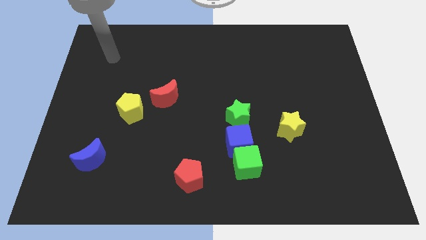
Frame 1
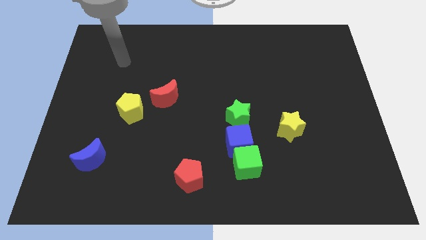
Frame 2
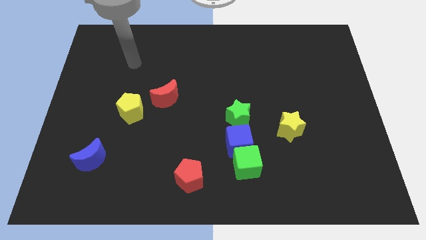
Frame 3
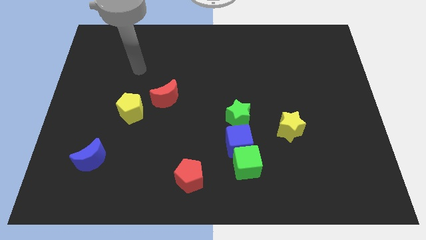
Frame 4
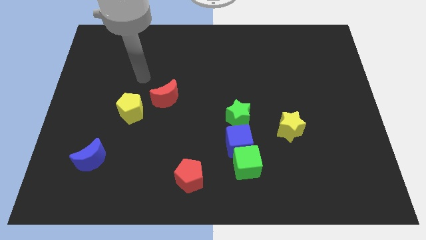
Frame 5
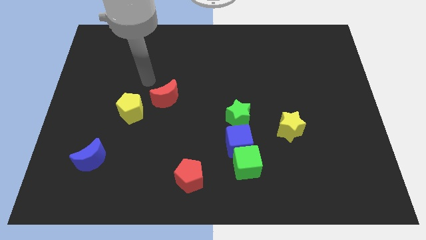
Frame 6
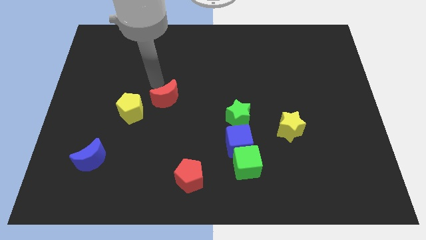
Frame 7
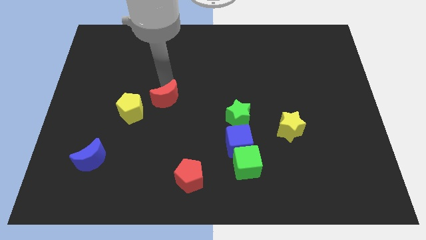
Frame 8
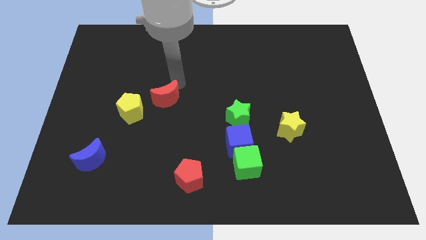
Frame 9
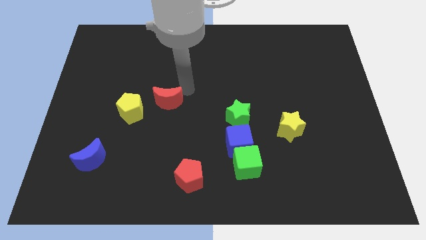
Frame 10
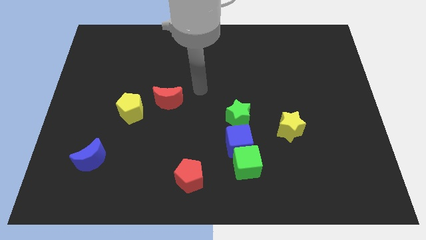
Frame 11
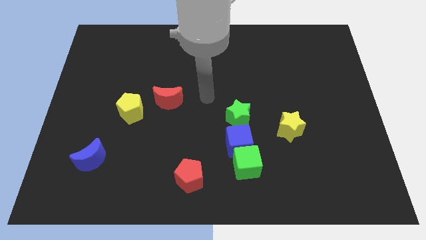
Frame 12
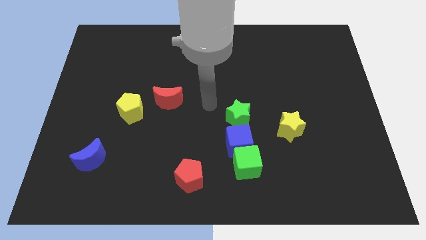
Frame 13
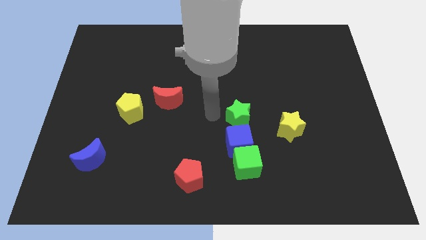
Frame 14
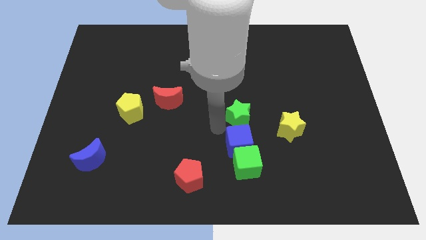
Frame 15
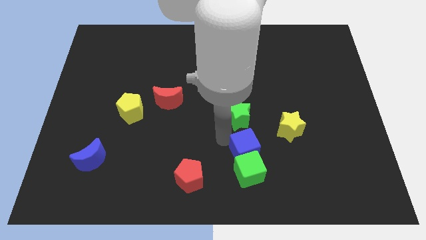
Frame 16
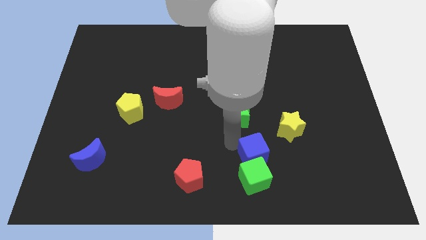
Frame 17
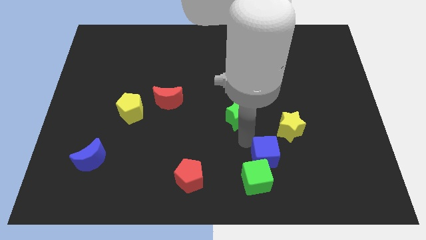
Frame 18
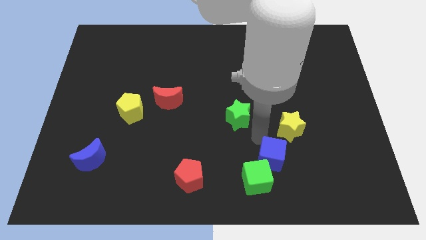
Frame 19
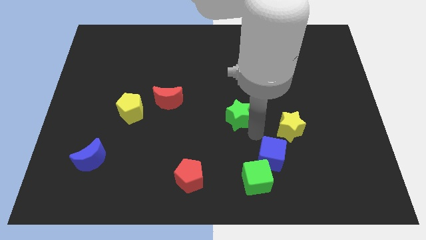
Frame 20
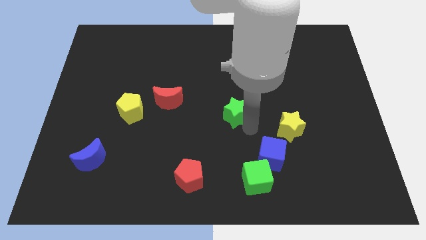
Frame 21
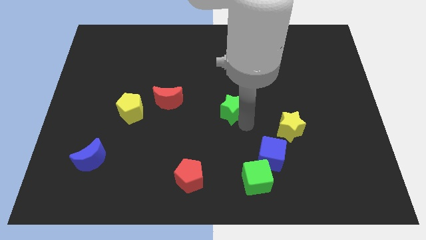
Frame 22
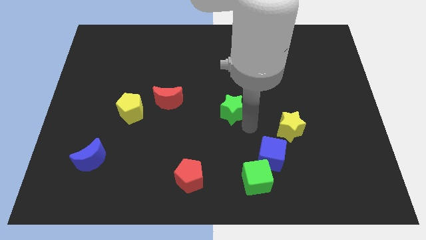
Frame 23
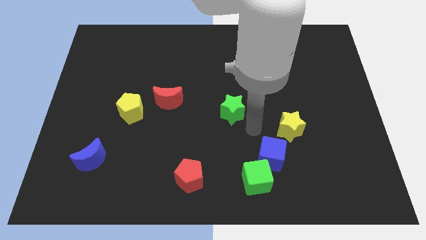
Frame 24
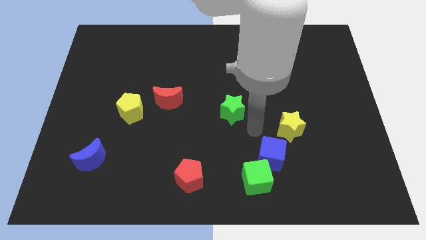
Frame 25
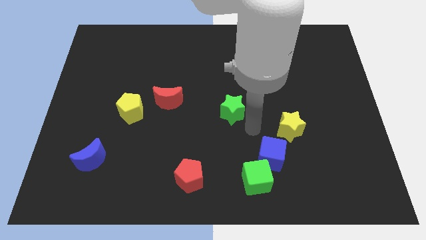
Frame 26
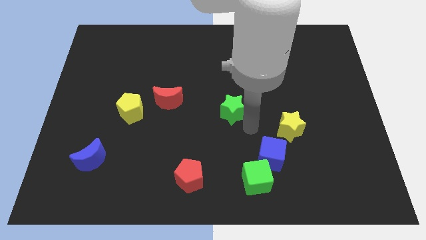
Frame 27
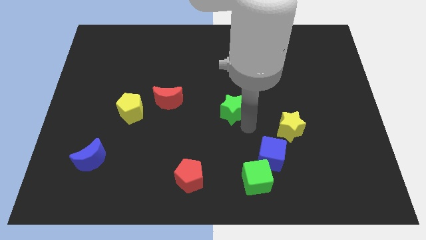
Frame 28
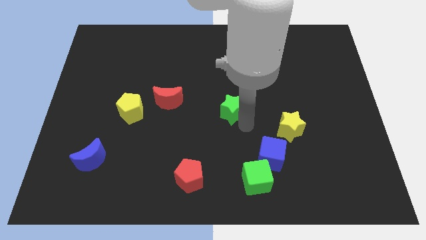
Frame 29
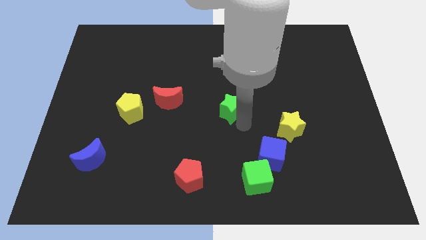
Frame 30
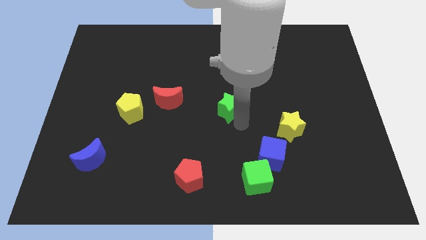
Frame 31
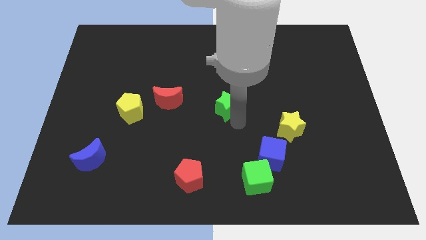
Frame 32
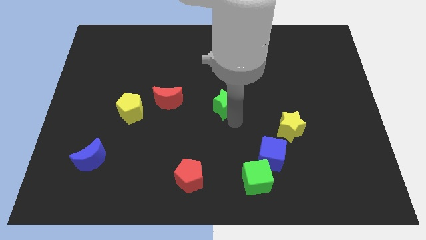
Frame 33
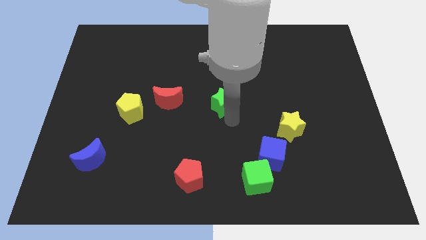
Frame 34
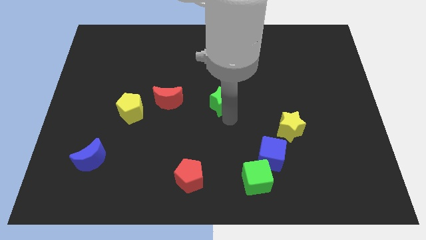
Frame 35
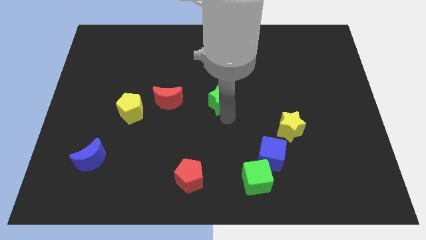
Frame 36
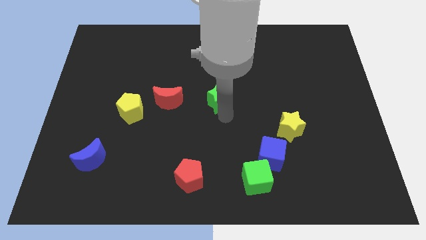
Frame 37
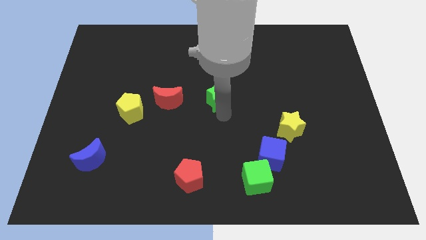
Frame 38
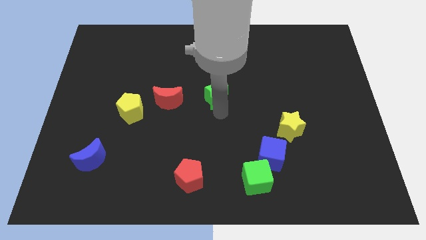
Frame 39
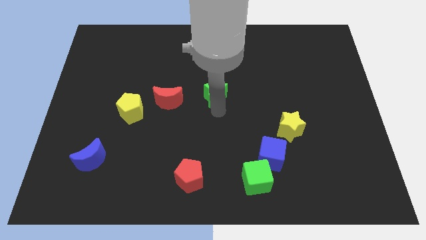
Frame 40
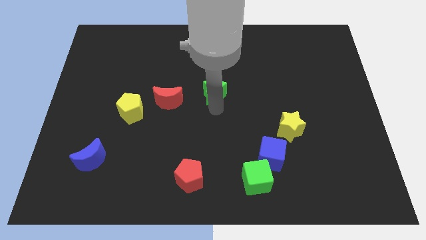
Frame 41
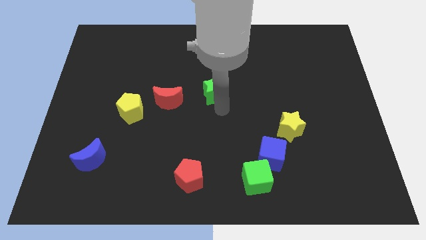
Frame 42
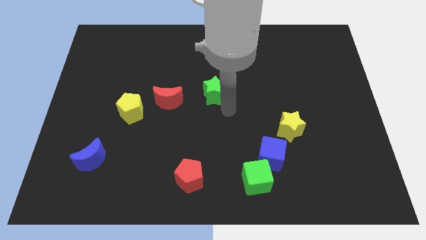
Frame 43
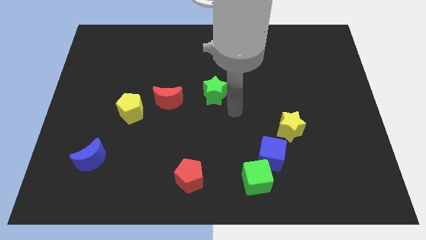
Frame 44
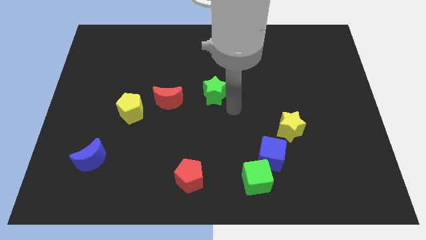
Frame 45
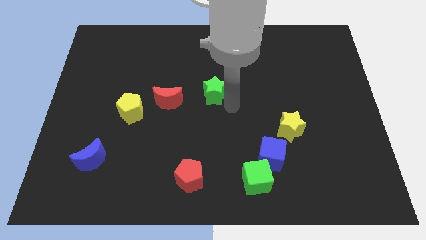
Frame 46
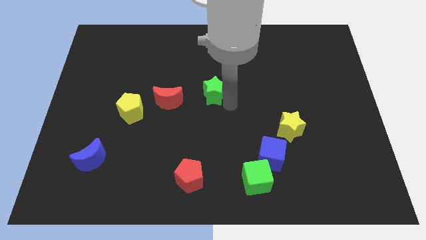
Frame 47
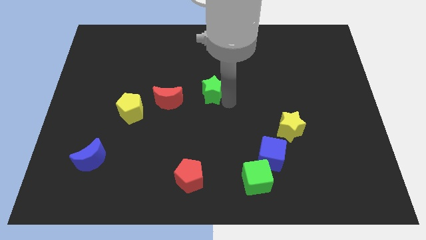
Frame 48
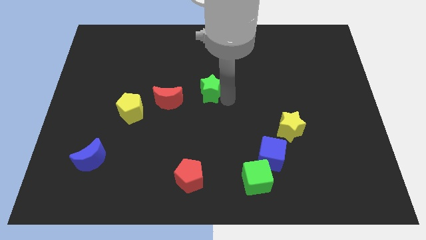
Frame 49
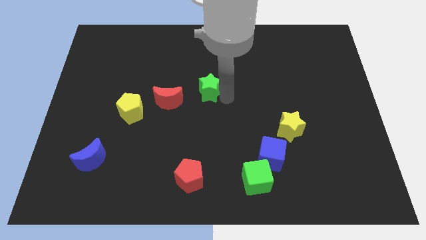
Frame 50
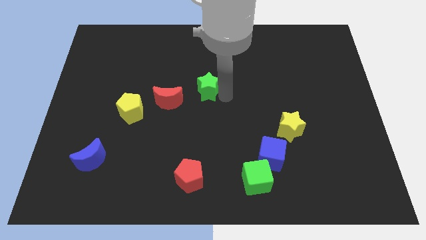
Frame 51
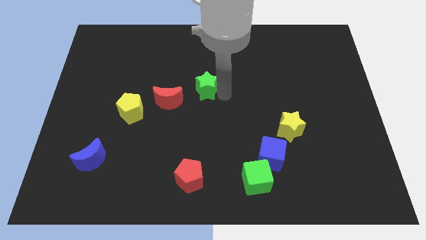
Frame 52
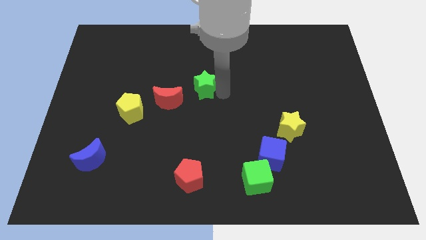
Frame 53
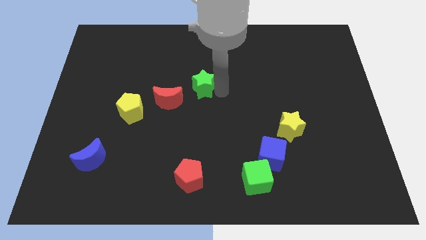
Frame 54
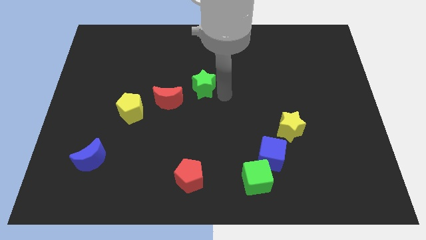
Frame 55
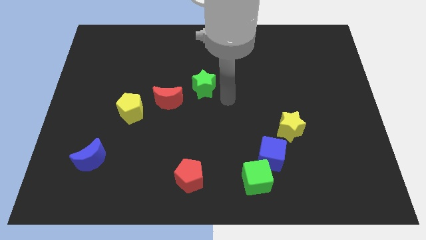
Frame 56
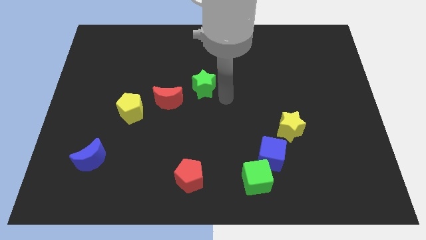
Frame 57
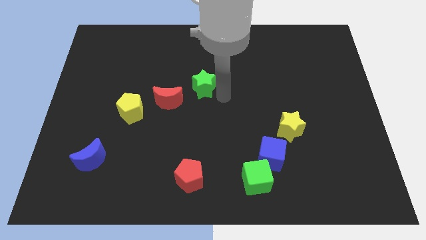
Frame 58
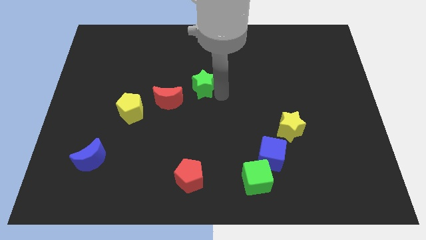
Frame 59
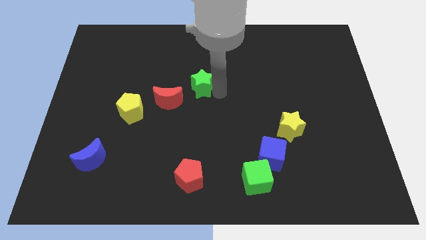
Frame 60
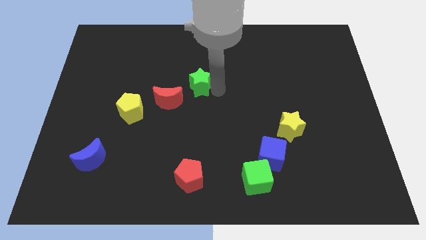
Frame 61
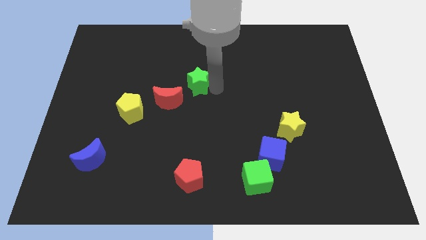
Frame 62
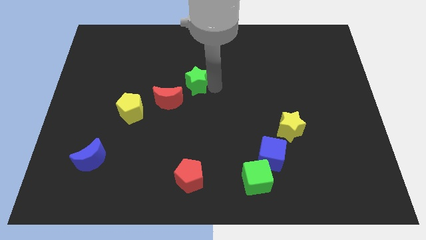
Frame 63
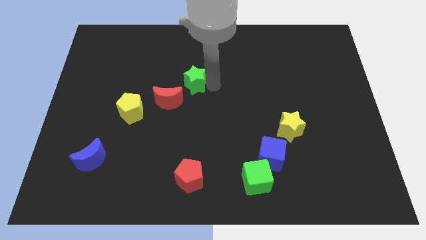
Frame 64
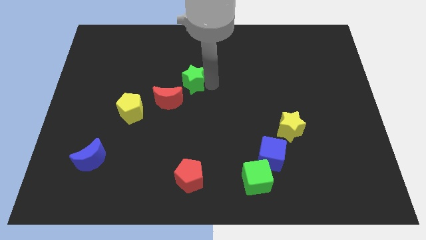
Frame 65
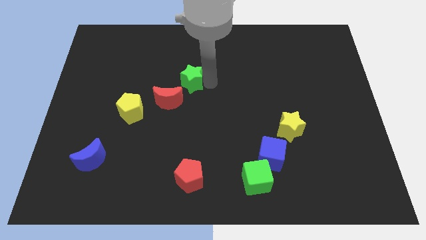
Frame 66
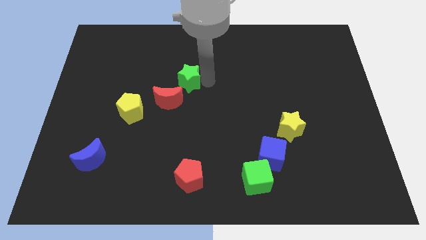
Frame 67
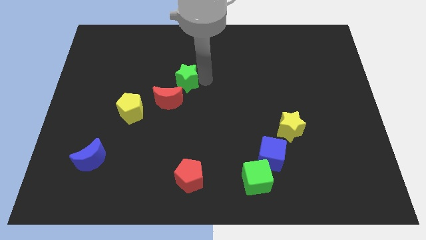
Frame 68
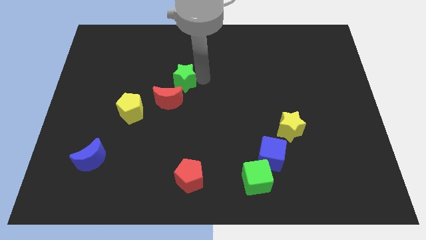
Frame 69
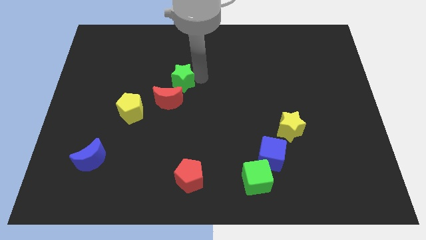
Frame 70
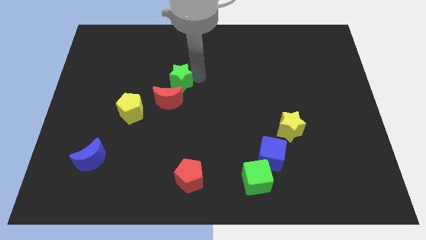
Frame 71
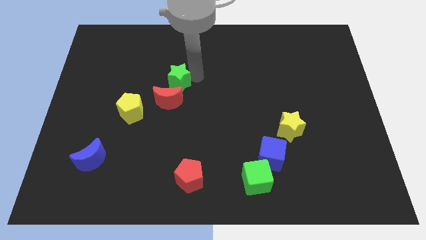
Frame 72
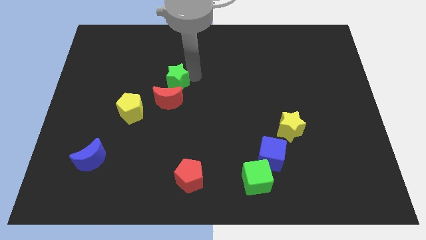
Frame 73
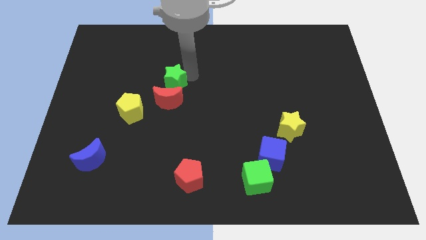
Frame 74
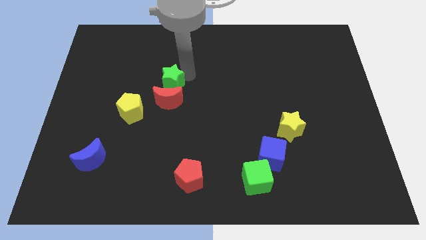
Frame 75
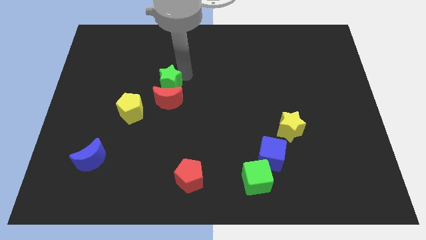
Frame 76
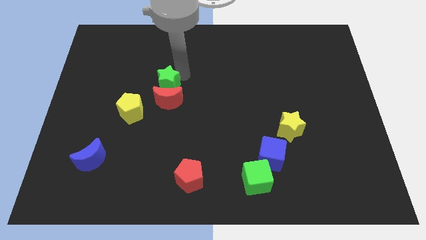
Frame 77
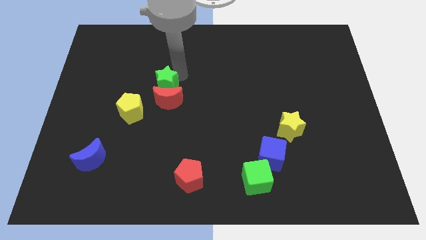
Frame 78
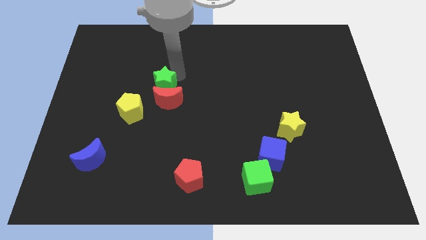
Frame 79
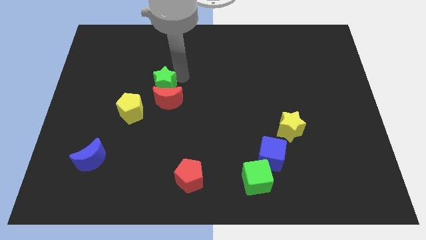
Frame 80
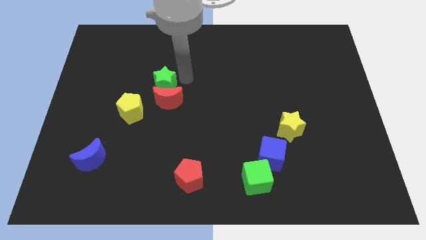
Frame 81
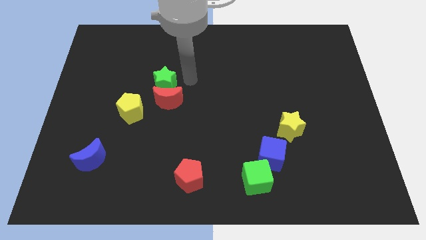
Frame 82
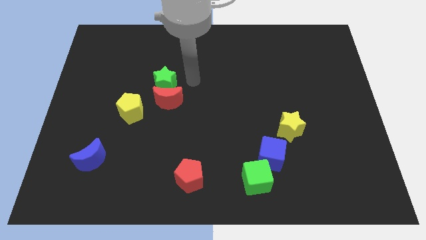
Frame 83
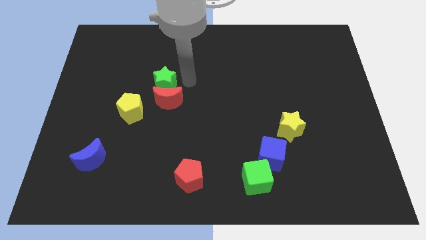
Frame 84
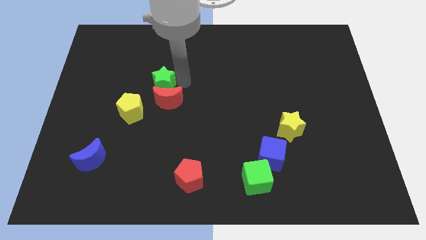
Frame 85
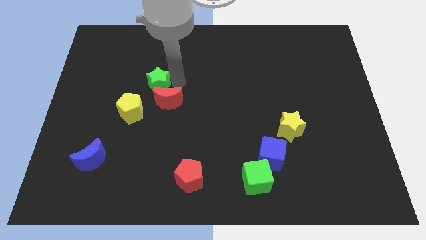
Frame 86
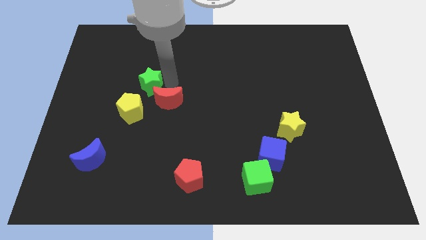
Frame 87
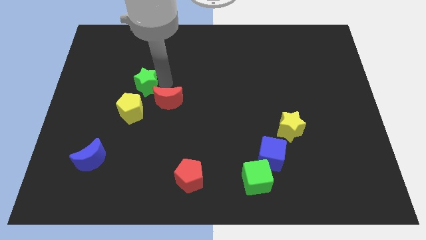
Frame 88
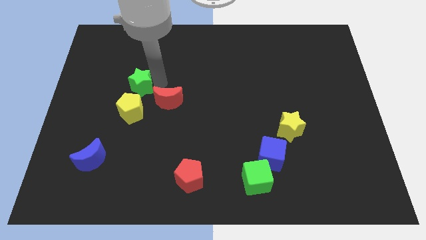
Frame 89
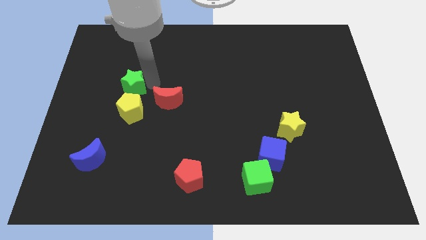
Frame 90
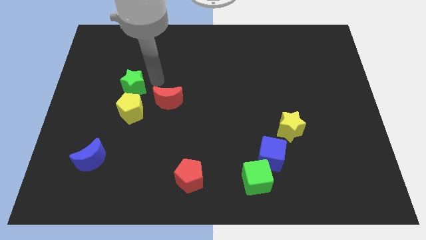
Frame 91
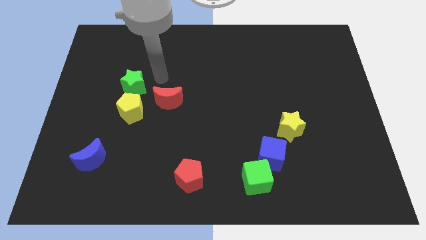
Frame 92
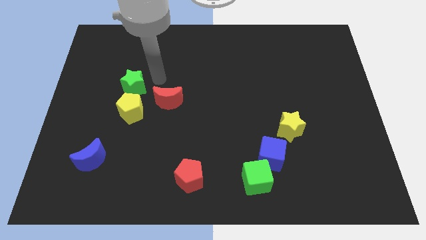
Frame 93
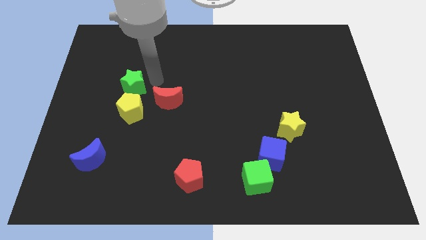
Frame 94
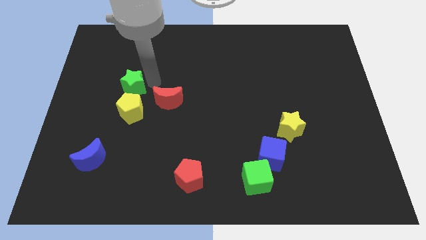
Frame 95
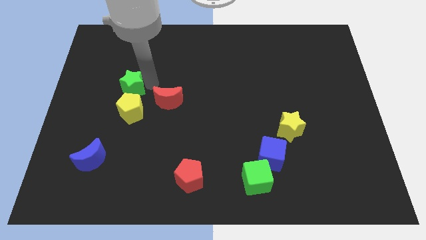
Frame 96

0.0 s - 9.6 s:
push the green star to the top left of the yellow pentagon
